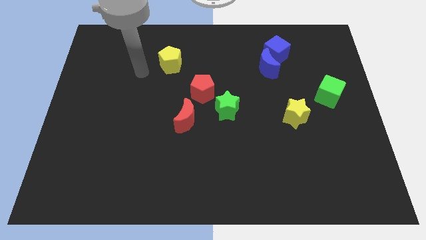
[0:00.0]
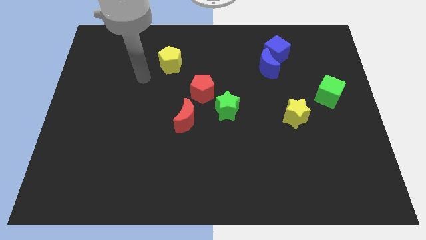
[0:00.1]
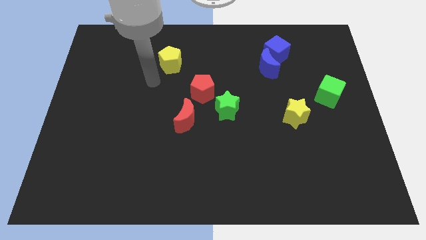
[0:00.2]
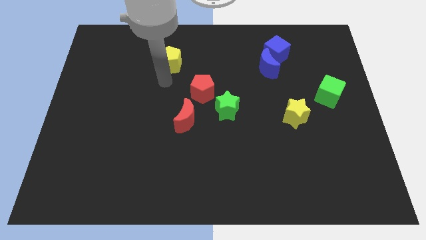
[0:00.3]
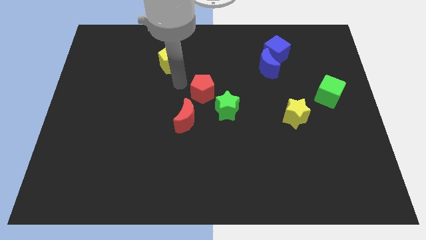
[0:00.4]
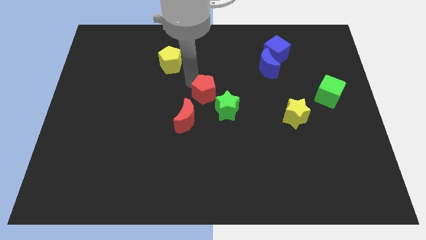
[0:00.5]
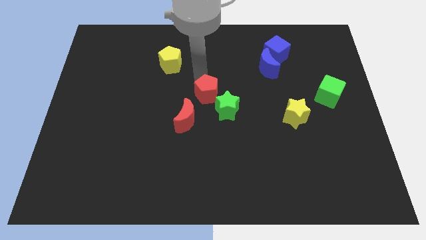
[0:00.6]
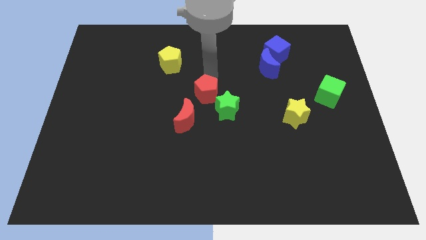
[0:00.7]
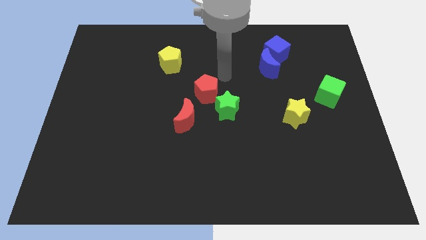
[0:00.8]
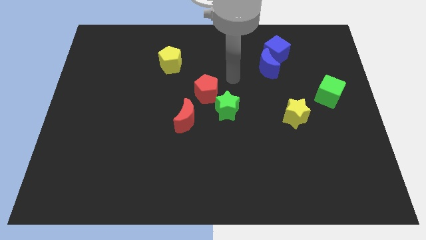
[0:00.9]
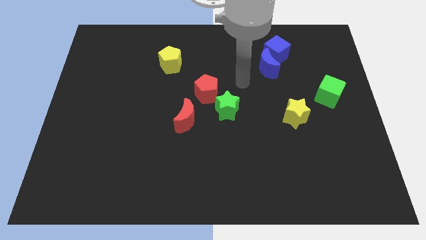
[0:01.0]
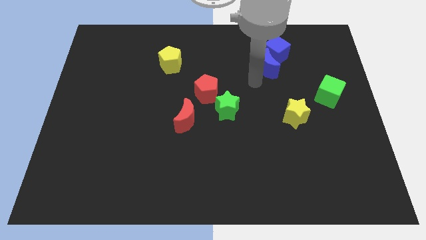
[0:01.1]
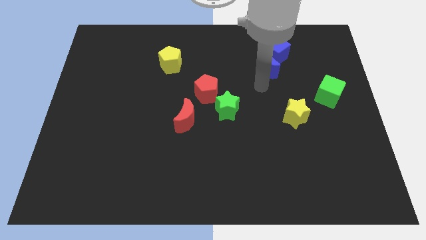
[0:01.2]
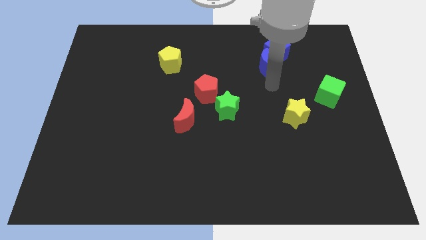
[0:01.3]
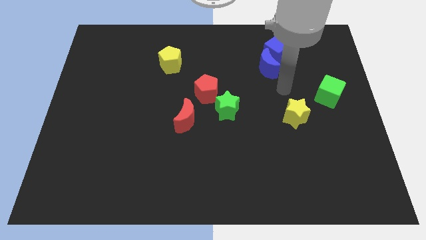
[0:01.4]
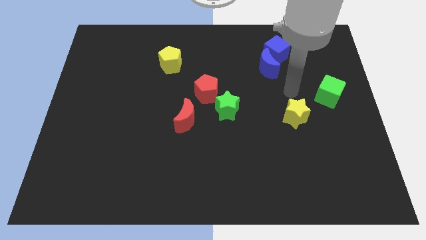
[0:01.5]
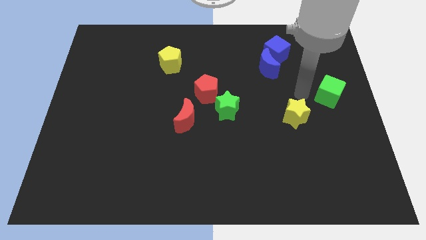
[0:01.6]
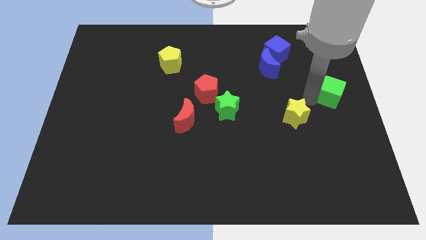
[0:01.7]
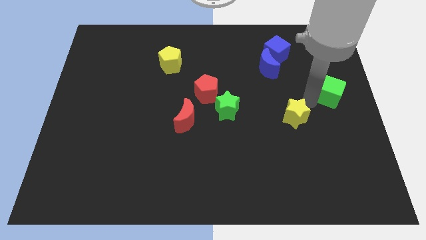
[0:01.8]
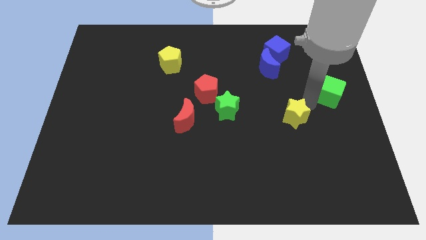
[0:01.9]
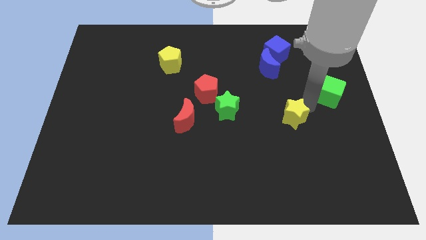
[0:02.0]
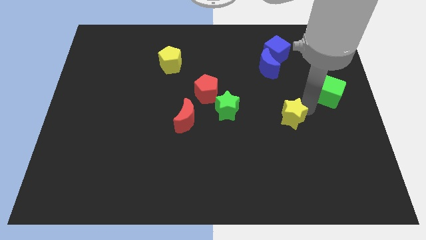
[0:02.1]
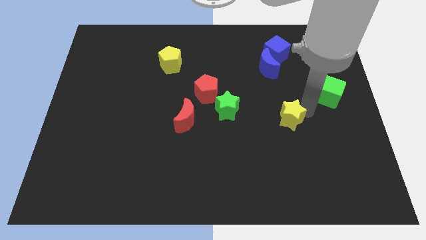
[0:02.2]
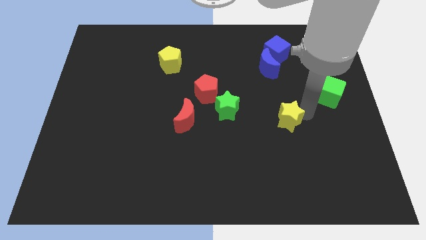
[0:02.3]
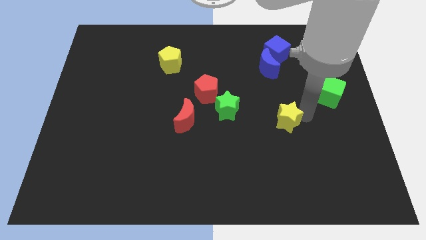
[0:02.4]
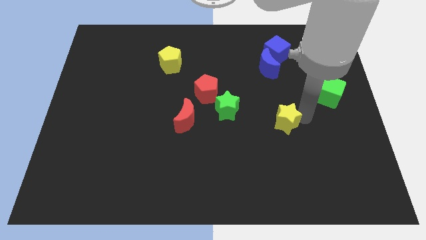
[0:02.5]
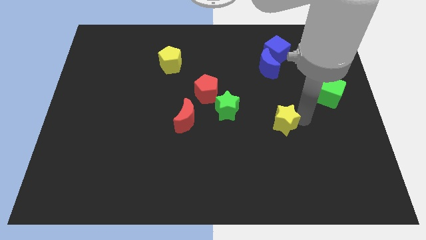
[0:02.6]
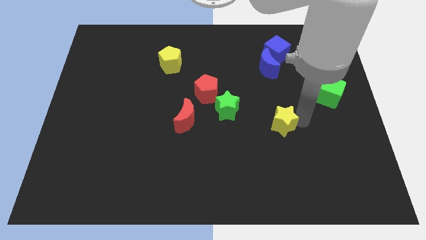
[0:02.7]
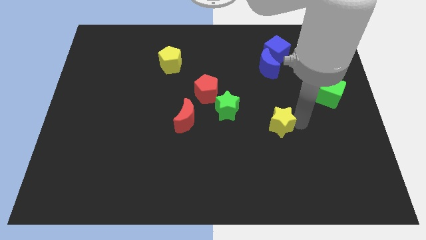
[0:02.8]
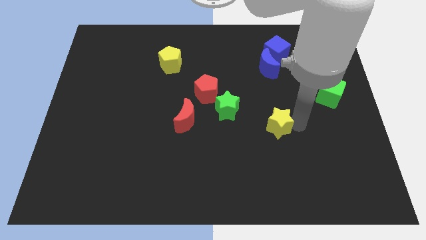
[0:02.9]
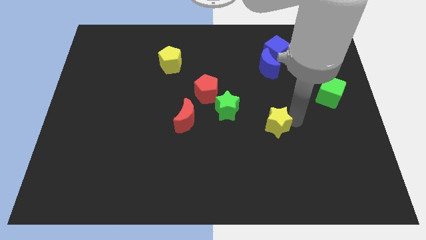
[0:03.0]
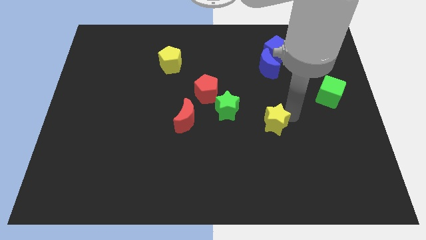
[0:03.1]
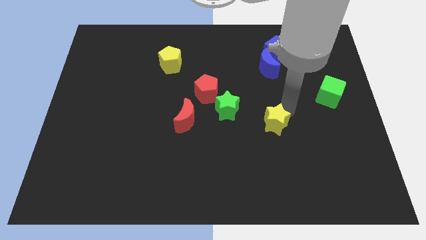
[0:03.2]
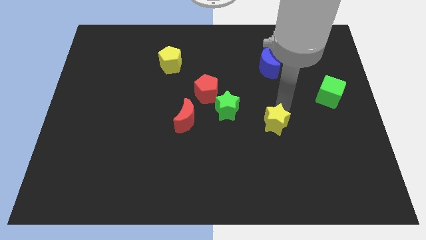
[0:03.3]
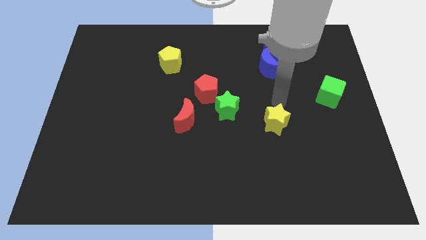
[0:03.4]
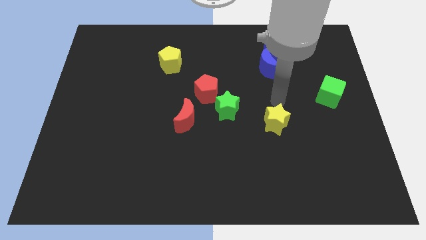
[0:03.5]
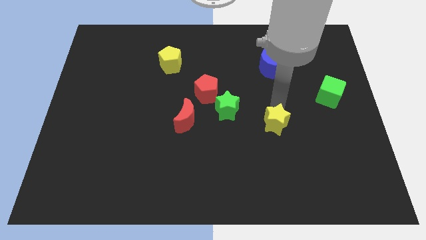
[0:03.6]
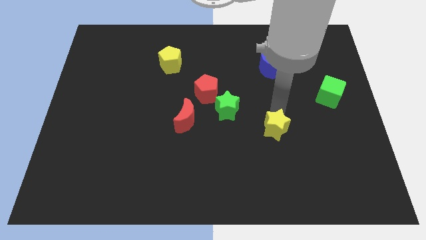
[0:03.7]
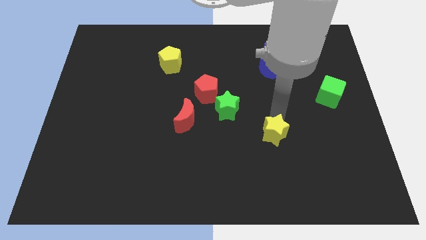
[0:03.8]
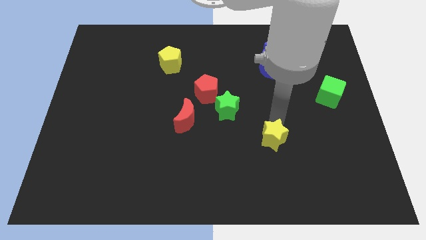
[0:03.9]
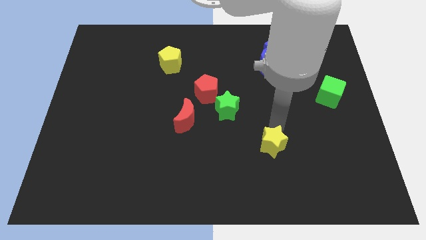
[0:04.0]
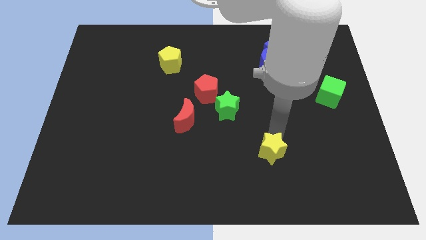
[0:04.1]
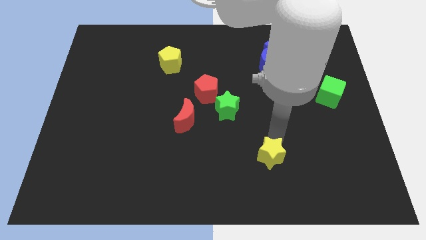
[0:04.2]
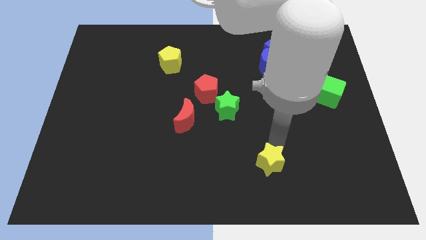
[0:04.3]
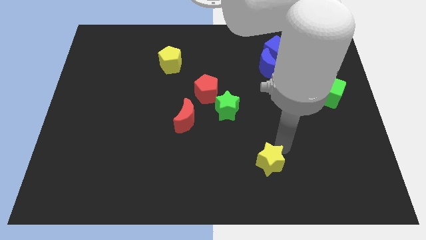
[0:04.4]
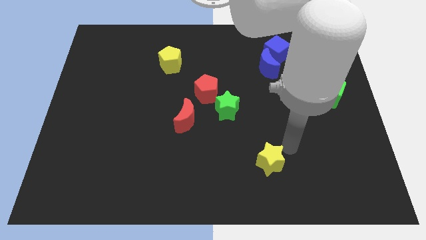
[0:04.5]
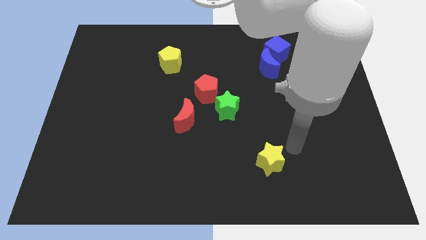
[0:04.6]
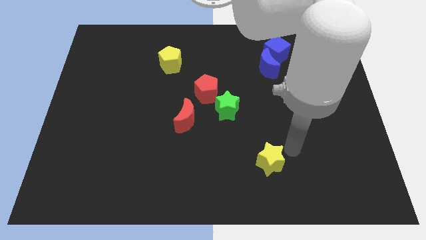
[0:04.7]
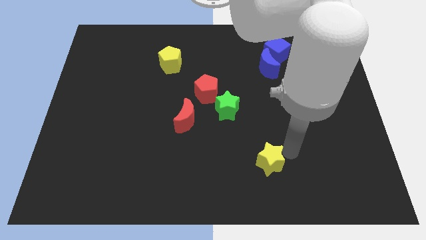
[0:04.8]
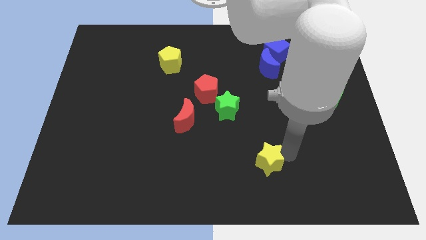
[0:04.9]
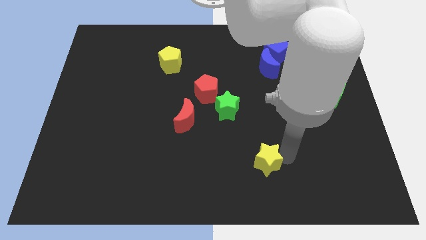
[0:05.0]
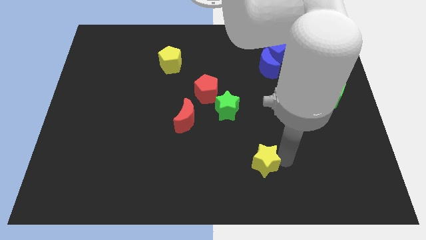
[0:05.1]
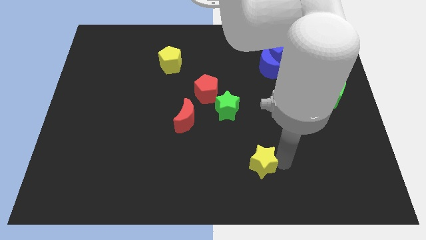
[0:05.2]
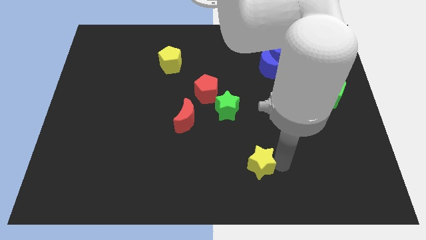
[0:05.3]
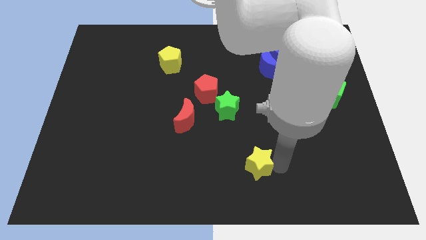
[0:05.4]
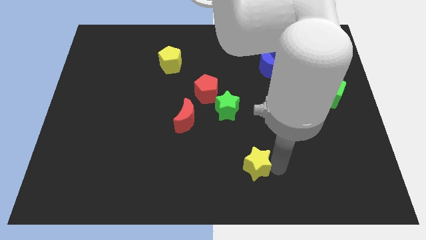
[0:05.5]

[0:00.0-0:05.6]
move the yellow star to the bottom side

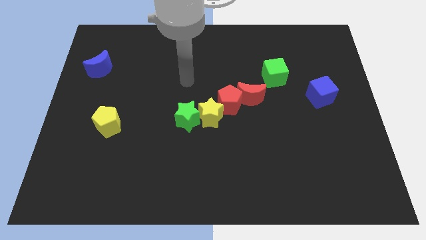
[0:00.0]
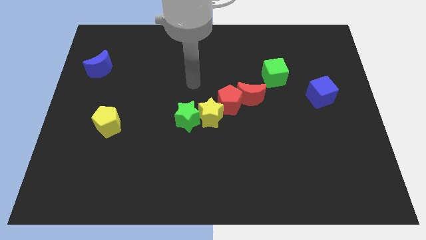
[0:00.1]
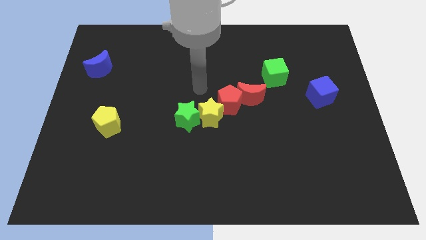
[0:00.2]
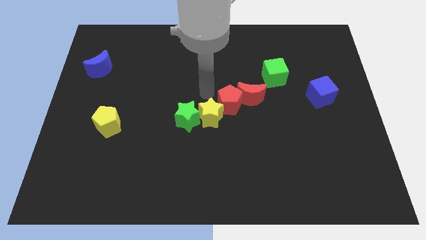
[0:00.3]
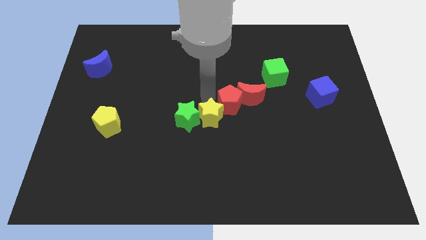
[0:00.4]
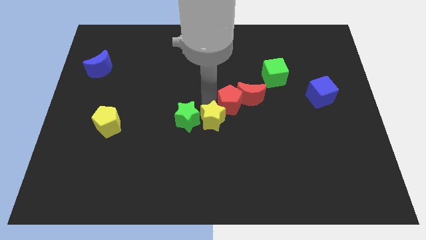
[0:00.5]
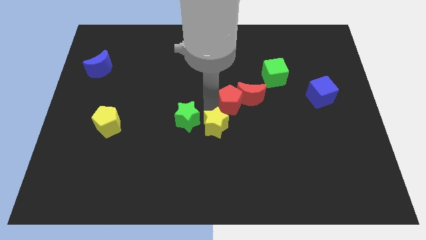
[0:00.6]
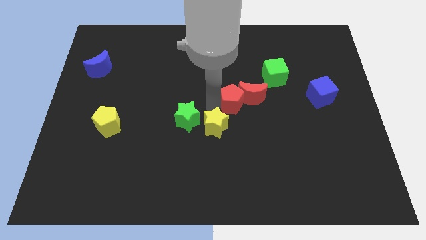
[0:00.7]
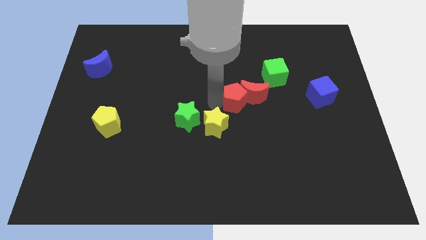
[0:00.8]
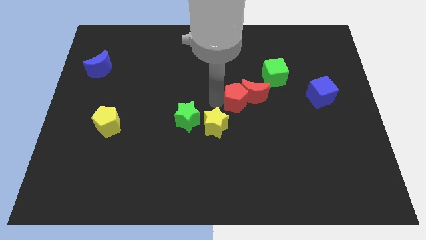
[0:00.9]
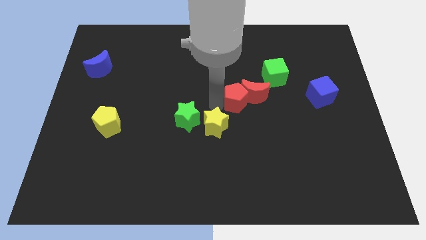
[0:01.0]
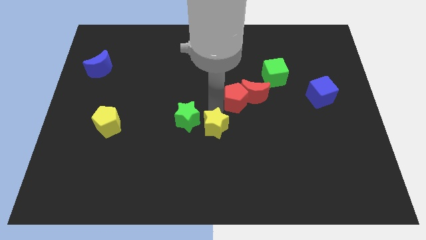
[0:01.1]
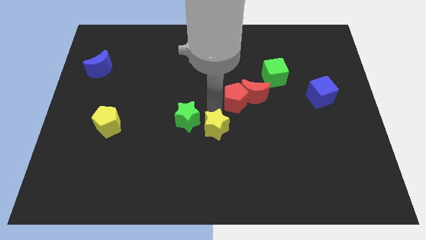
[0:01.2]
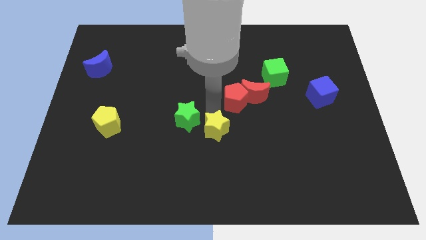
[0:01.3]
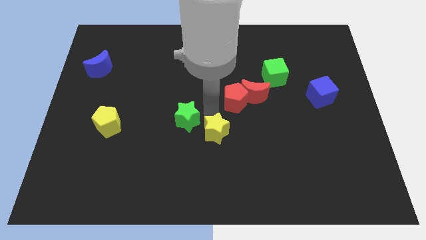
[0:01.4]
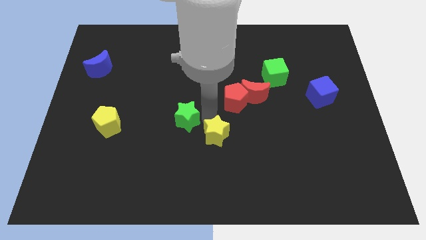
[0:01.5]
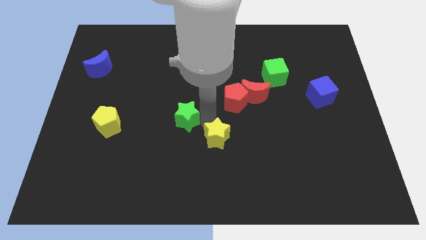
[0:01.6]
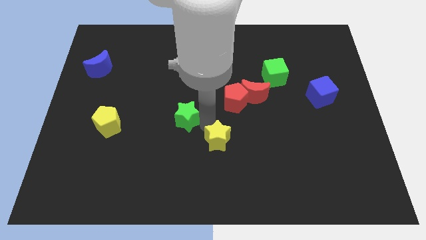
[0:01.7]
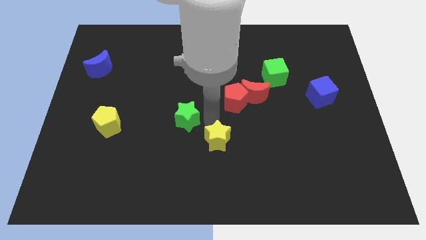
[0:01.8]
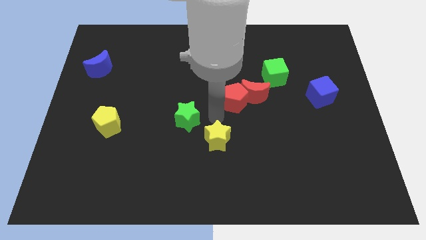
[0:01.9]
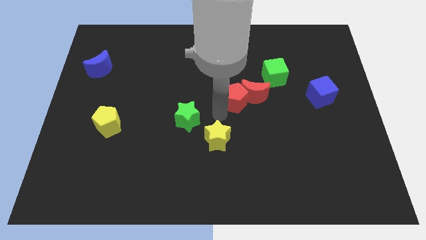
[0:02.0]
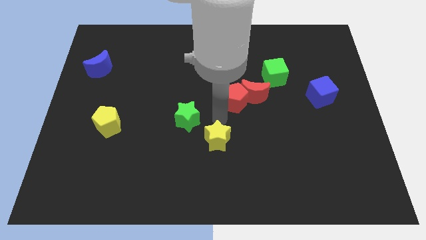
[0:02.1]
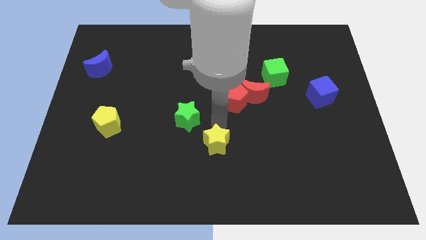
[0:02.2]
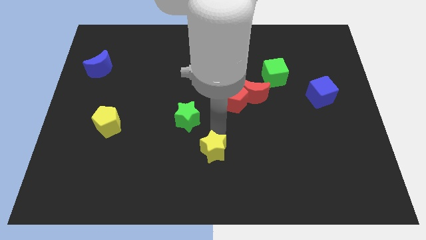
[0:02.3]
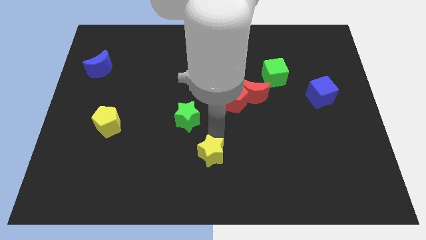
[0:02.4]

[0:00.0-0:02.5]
slide the yellow star to the bottom side
